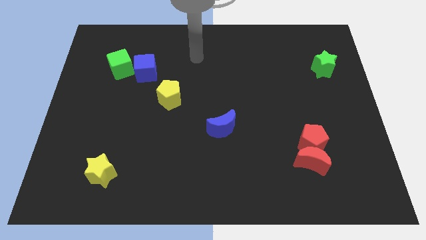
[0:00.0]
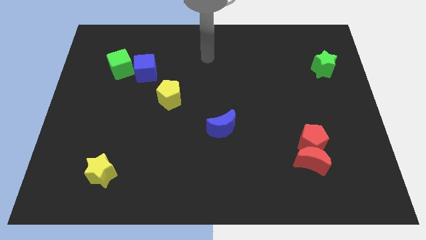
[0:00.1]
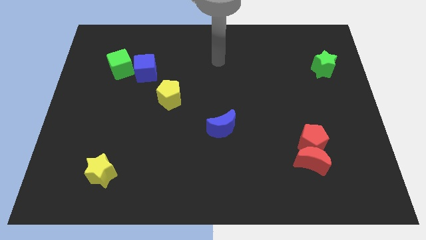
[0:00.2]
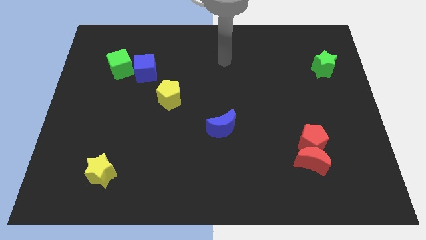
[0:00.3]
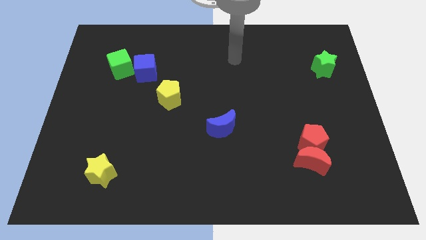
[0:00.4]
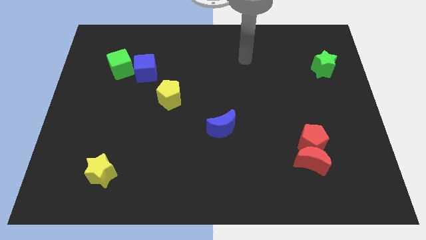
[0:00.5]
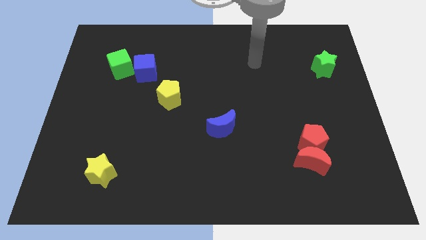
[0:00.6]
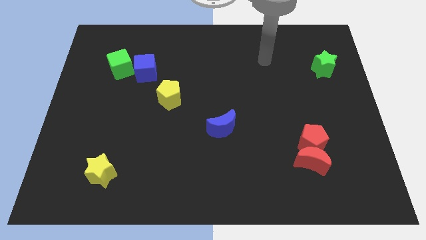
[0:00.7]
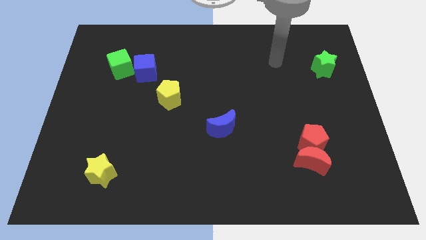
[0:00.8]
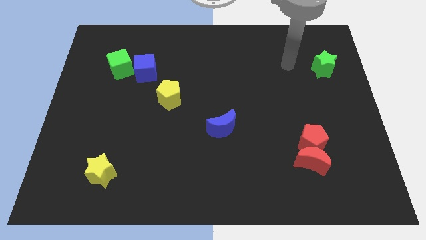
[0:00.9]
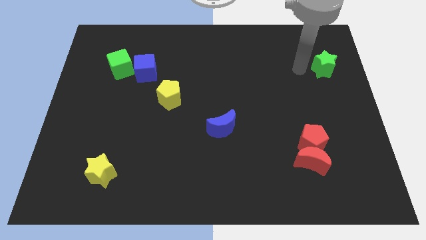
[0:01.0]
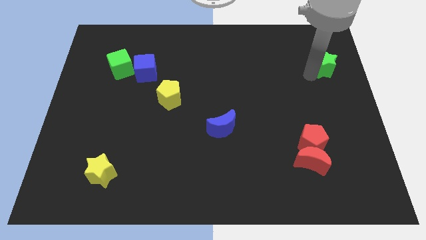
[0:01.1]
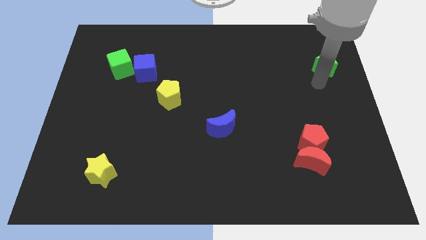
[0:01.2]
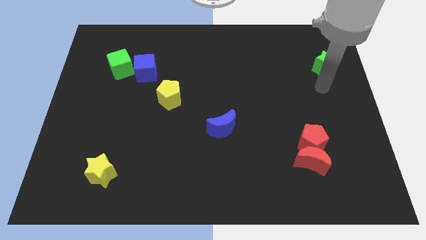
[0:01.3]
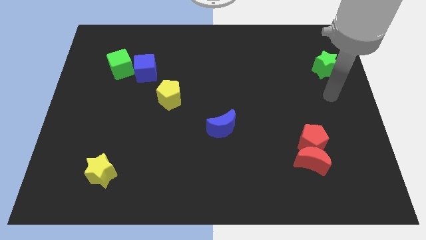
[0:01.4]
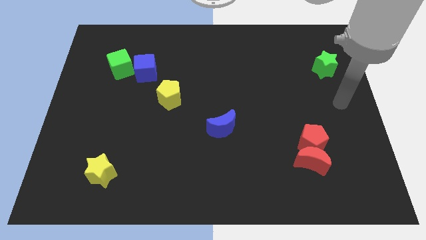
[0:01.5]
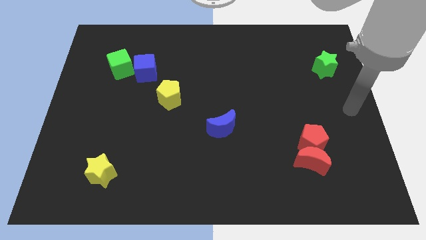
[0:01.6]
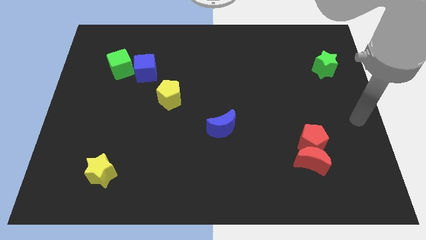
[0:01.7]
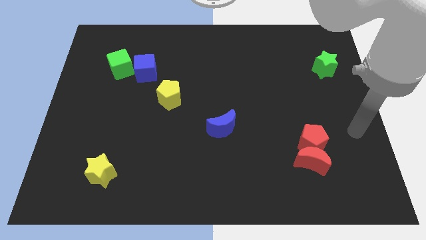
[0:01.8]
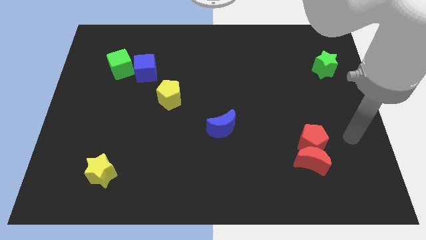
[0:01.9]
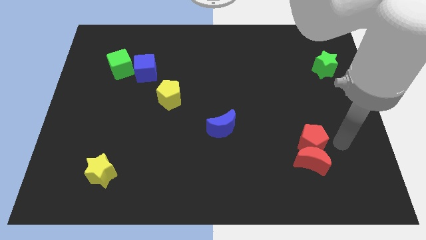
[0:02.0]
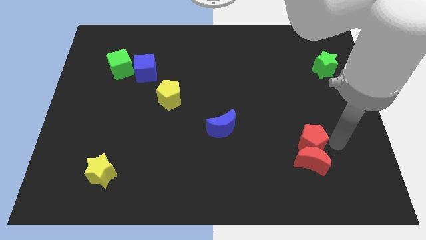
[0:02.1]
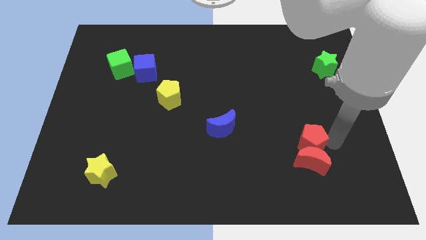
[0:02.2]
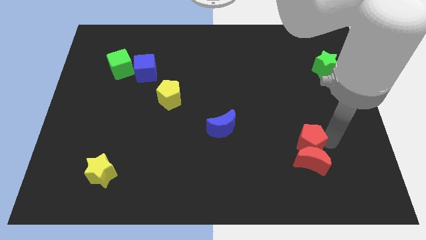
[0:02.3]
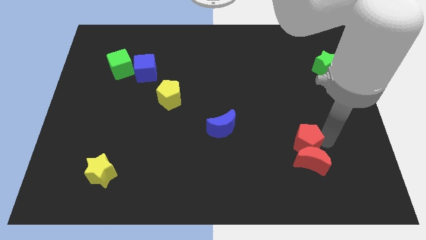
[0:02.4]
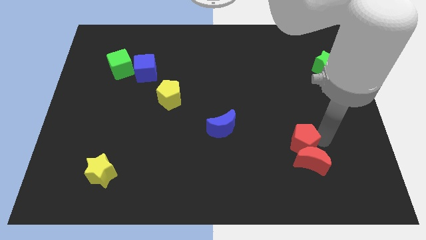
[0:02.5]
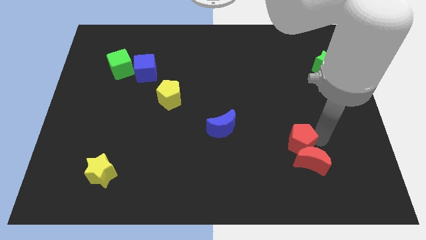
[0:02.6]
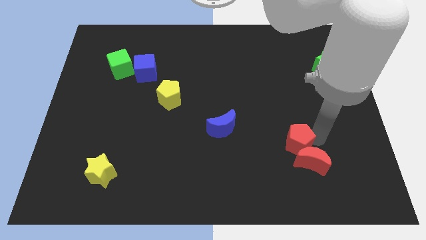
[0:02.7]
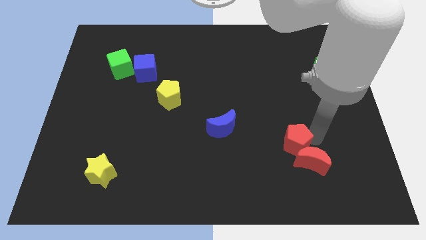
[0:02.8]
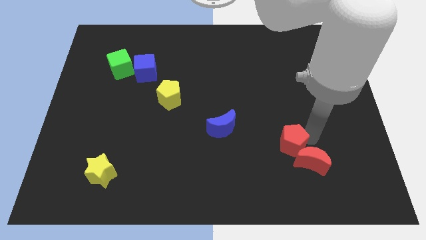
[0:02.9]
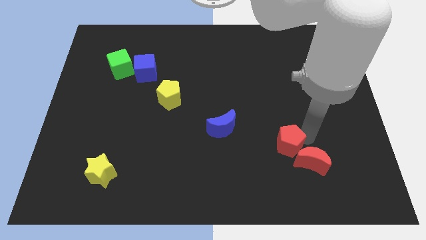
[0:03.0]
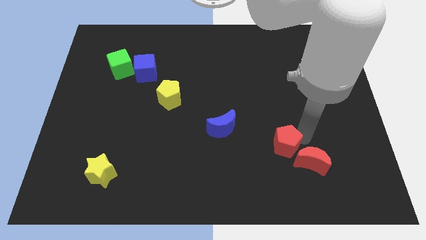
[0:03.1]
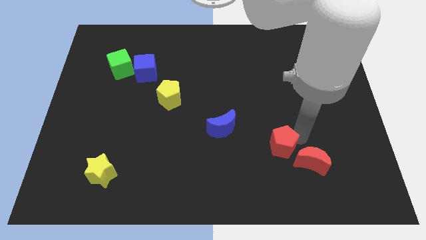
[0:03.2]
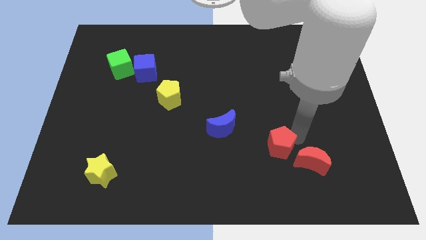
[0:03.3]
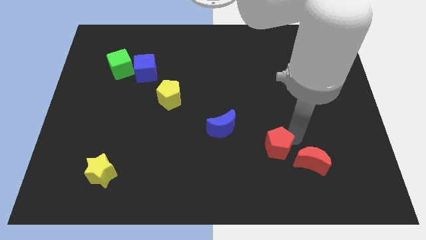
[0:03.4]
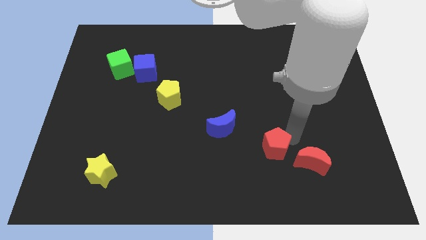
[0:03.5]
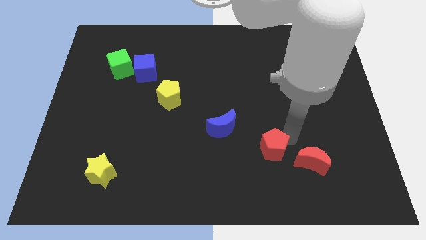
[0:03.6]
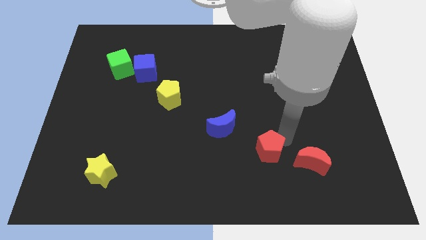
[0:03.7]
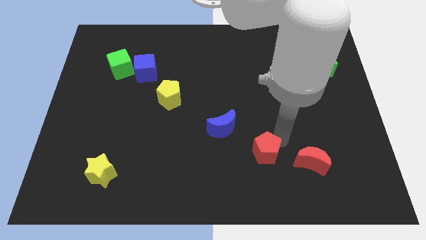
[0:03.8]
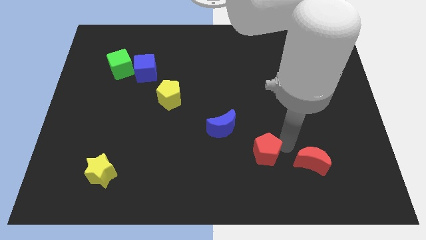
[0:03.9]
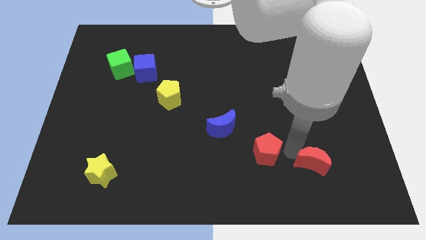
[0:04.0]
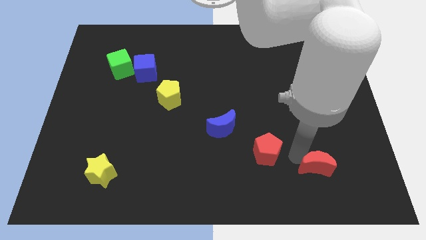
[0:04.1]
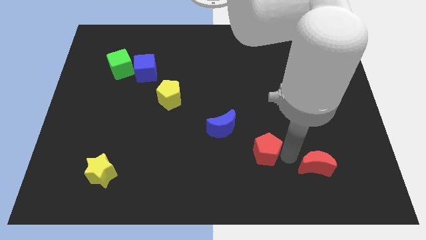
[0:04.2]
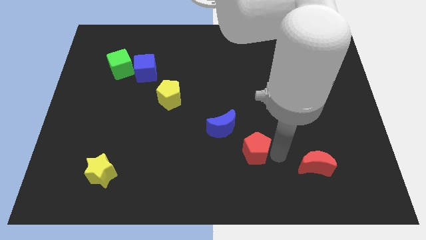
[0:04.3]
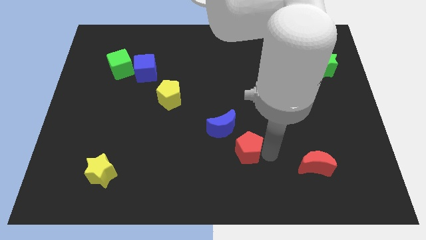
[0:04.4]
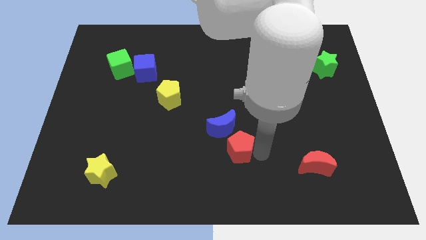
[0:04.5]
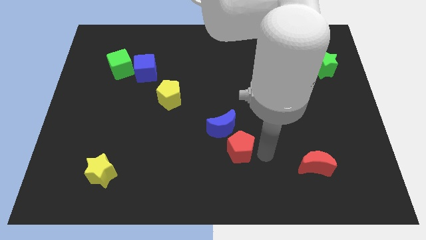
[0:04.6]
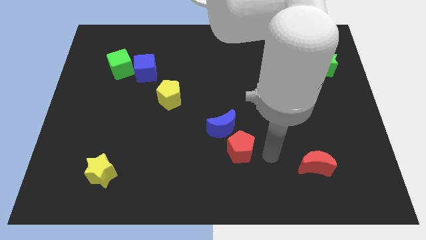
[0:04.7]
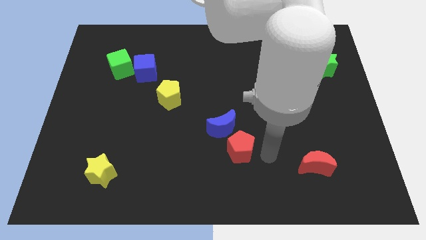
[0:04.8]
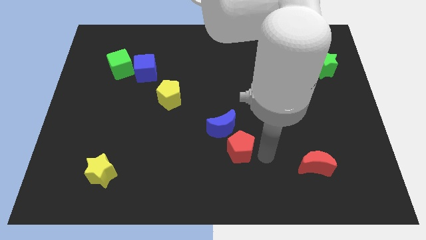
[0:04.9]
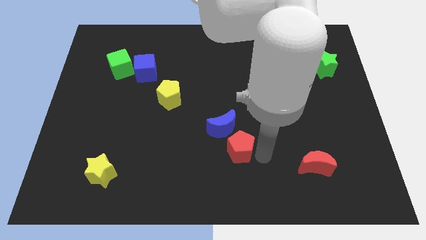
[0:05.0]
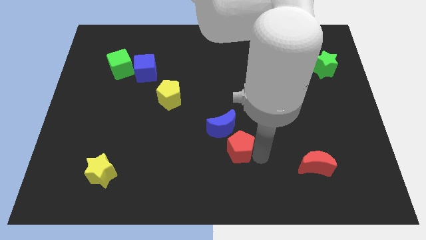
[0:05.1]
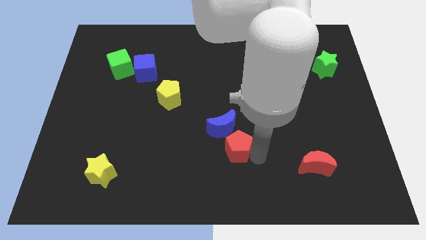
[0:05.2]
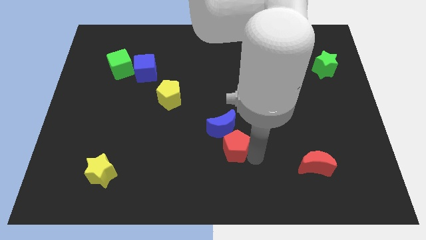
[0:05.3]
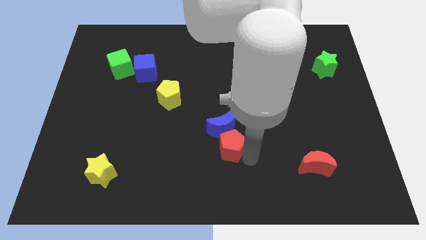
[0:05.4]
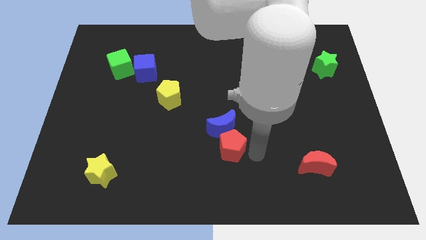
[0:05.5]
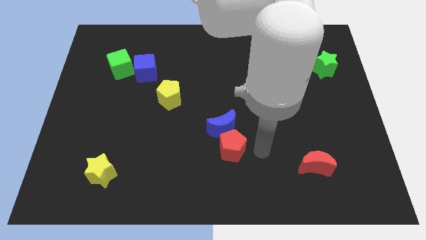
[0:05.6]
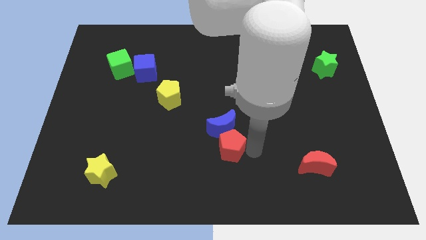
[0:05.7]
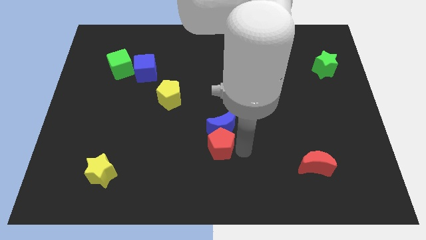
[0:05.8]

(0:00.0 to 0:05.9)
push the red pentagon to the left

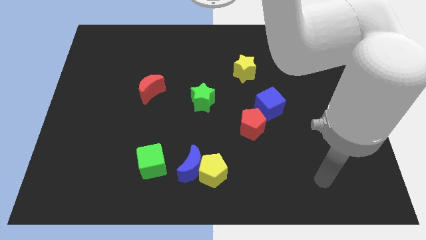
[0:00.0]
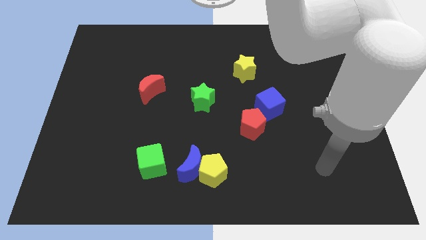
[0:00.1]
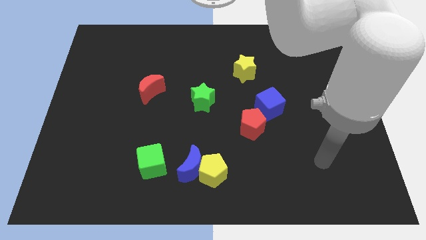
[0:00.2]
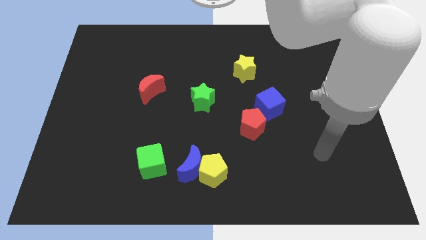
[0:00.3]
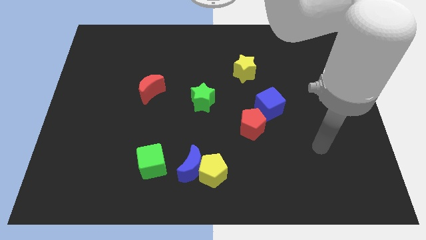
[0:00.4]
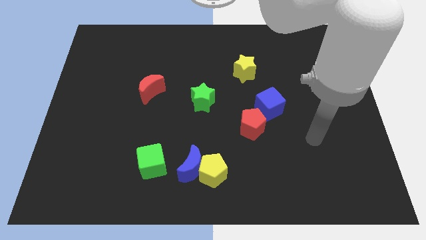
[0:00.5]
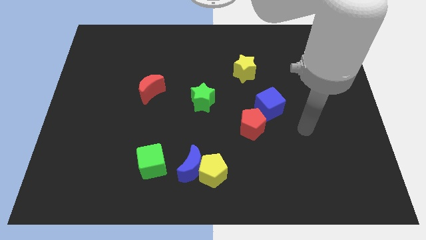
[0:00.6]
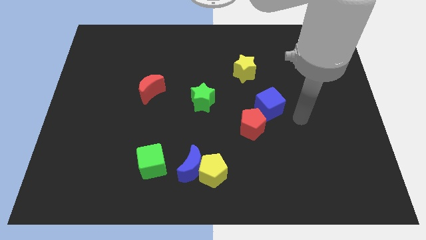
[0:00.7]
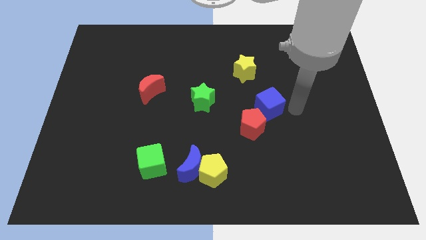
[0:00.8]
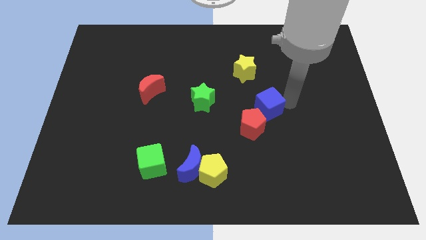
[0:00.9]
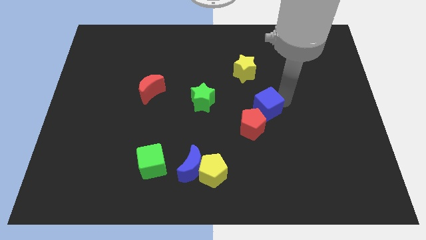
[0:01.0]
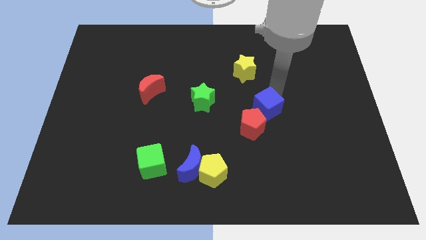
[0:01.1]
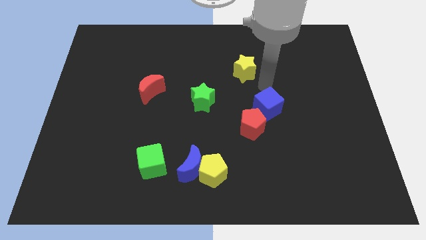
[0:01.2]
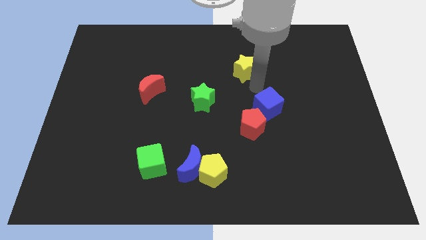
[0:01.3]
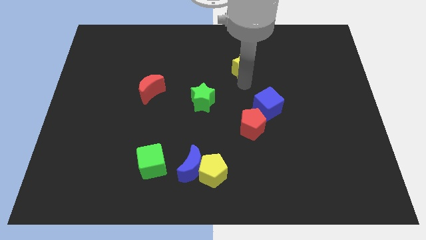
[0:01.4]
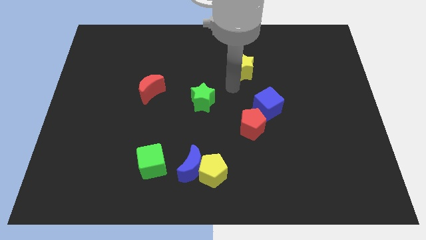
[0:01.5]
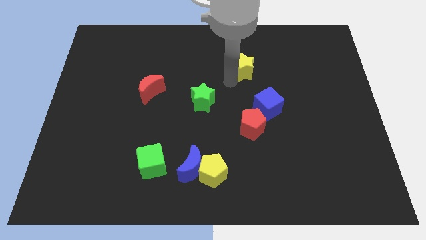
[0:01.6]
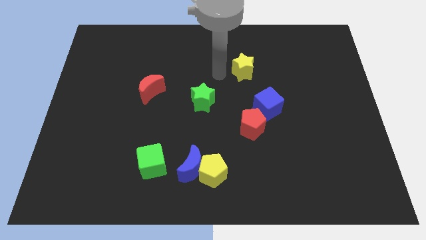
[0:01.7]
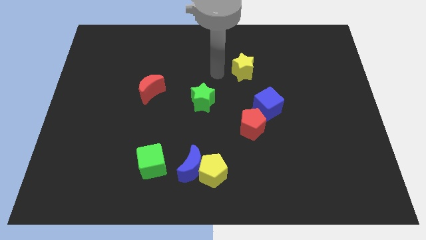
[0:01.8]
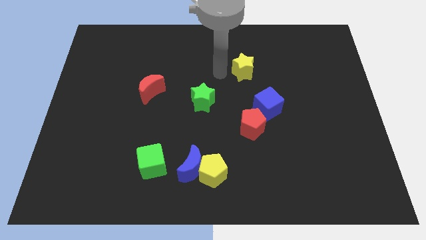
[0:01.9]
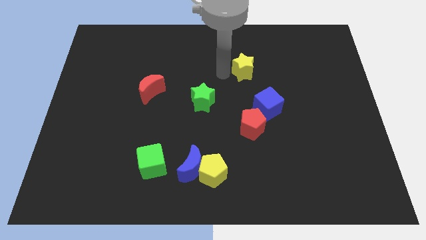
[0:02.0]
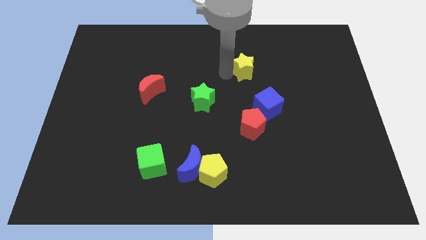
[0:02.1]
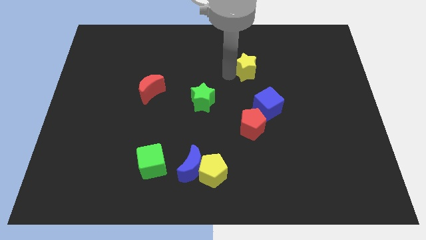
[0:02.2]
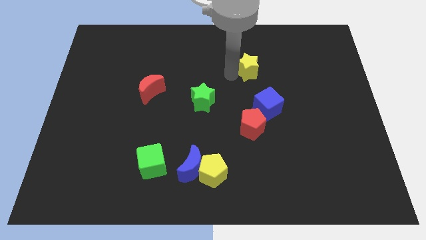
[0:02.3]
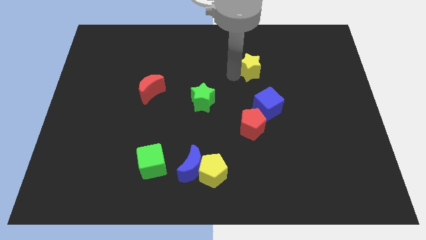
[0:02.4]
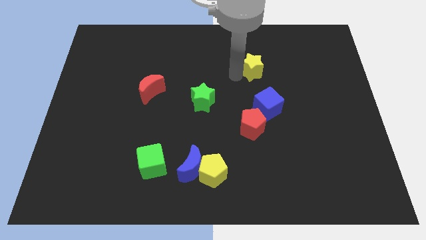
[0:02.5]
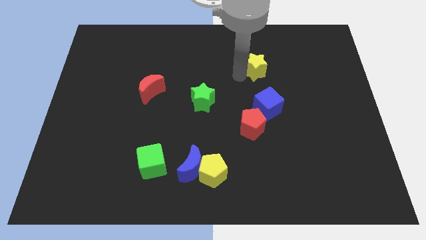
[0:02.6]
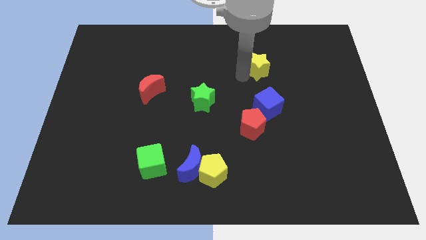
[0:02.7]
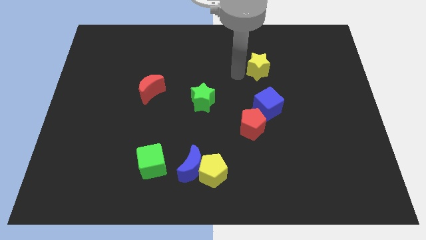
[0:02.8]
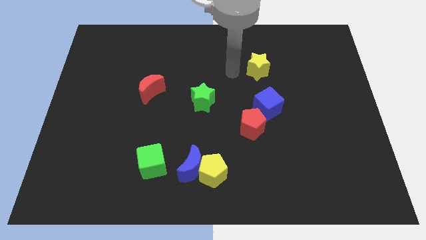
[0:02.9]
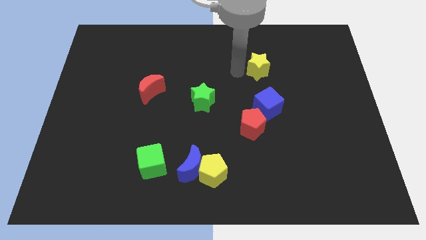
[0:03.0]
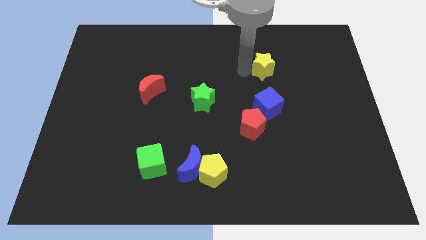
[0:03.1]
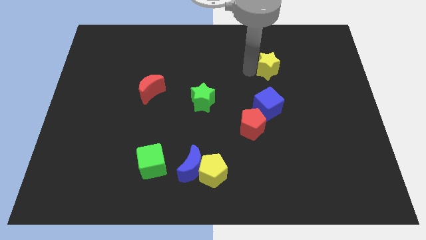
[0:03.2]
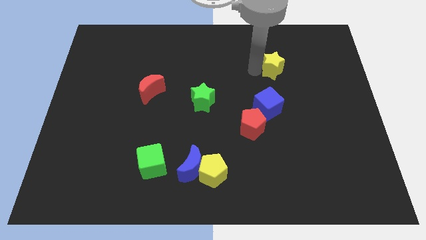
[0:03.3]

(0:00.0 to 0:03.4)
move the yellow star a little right
